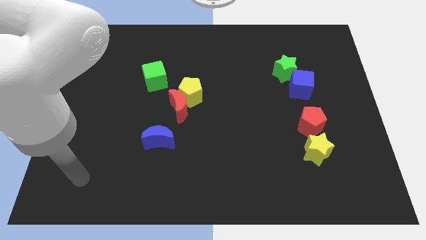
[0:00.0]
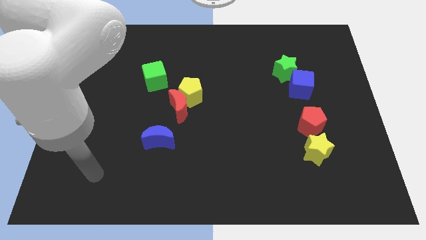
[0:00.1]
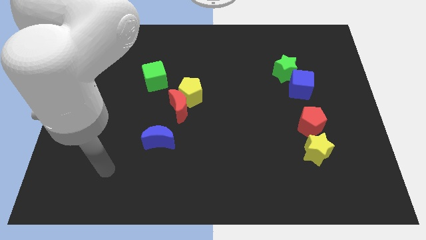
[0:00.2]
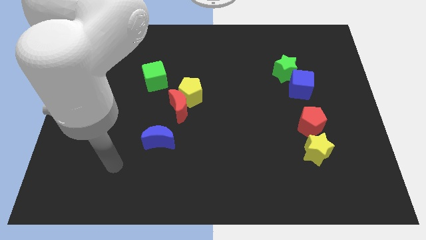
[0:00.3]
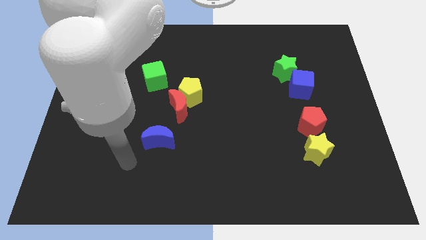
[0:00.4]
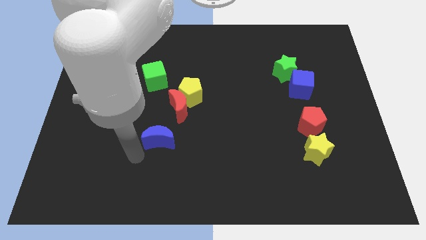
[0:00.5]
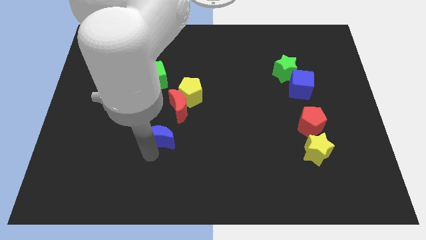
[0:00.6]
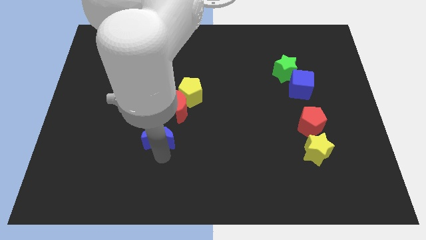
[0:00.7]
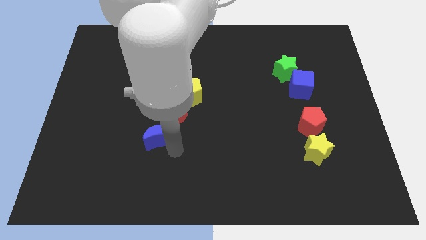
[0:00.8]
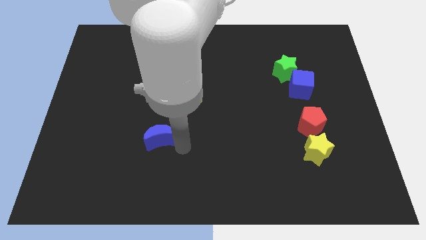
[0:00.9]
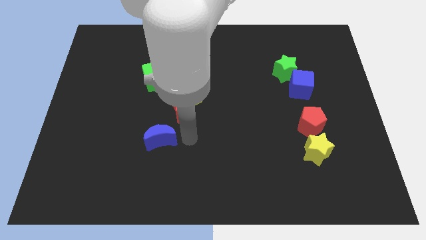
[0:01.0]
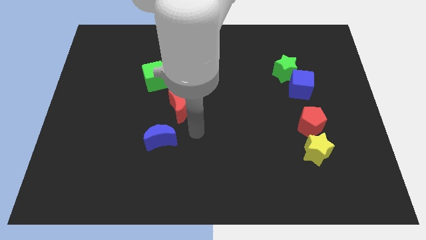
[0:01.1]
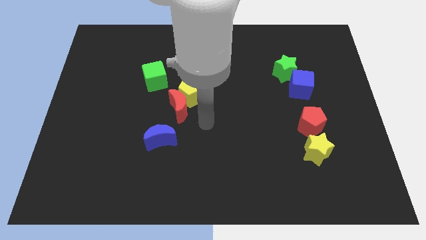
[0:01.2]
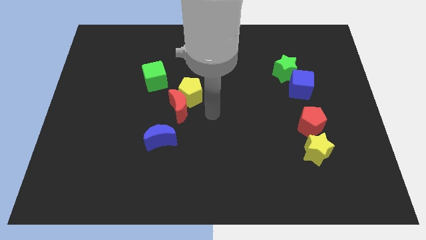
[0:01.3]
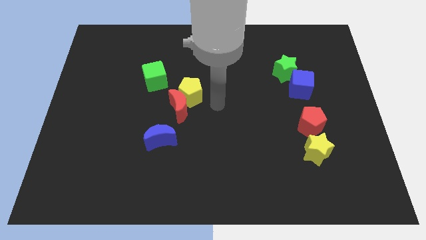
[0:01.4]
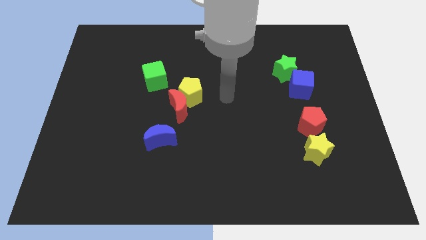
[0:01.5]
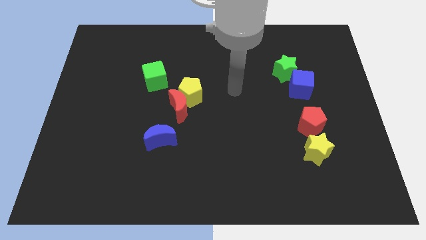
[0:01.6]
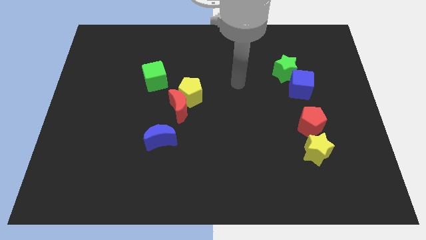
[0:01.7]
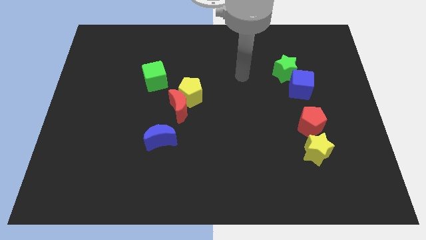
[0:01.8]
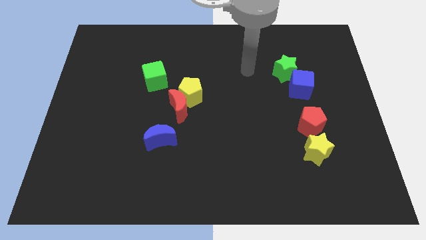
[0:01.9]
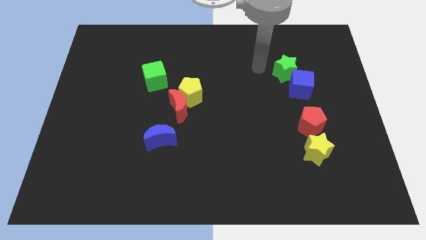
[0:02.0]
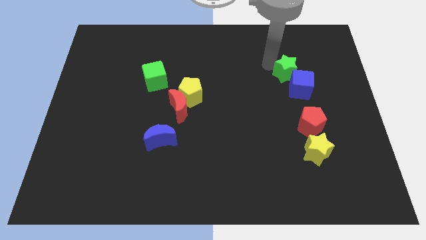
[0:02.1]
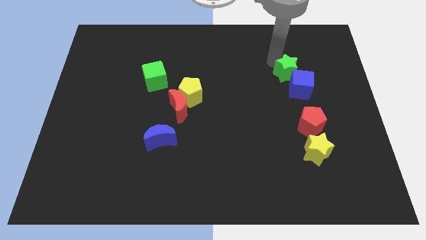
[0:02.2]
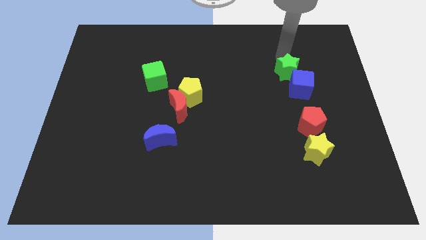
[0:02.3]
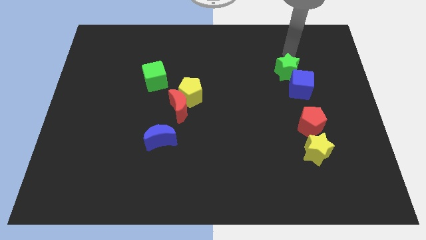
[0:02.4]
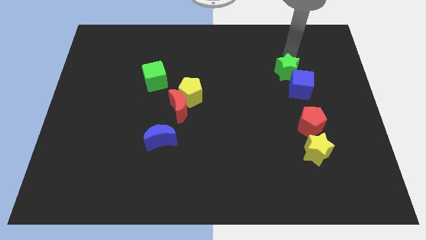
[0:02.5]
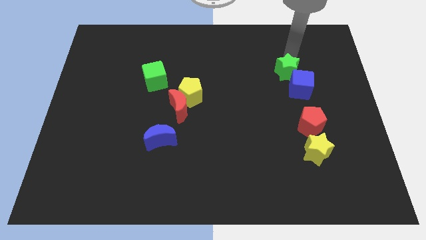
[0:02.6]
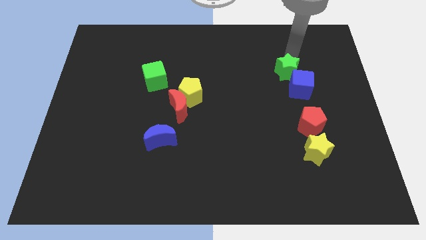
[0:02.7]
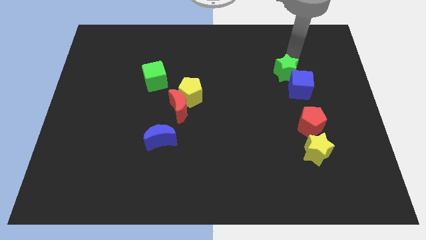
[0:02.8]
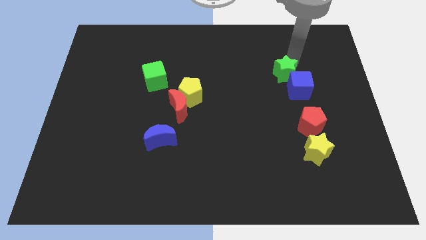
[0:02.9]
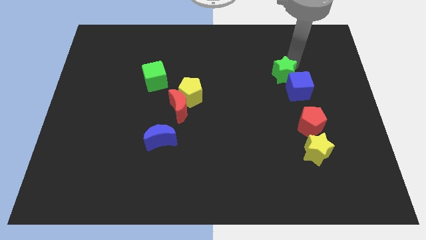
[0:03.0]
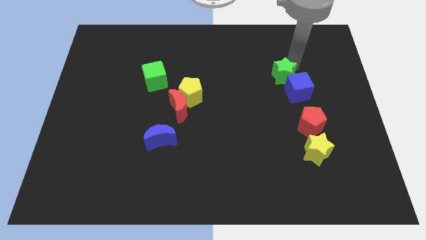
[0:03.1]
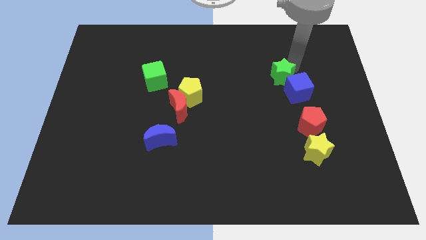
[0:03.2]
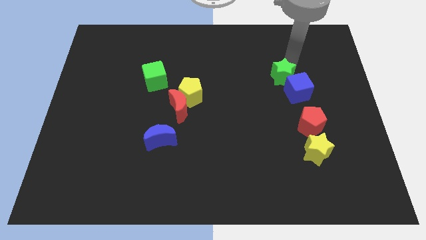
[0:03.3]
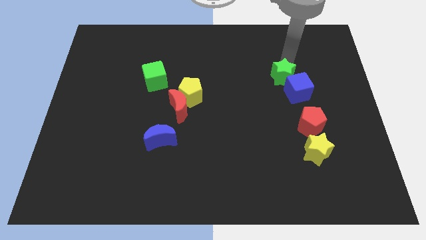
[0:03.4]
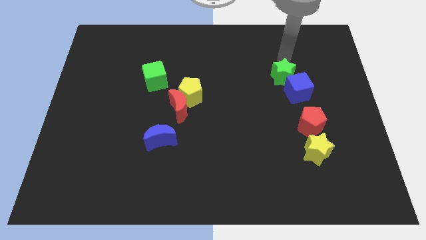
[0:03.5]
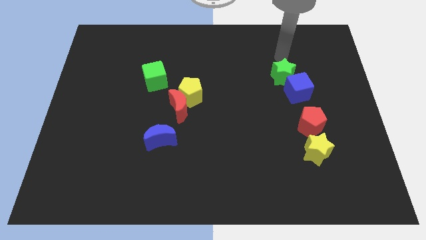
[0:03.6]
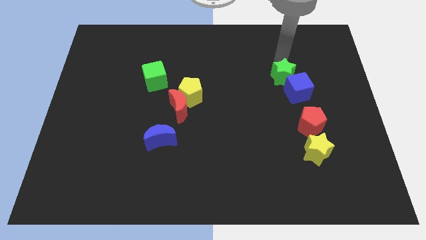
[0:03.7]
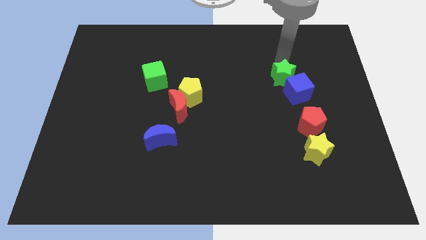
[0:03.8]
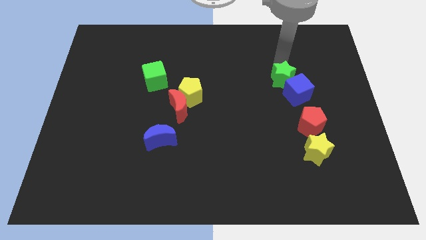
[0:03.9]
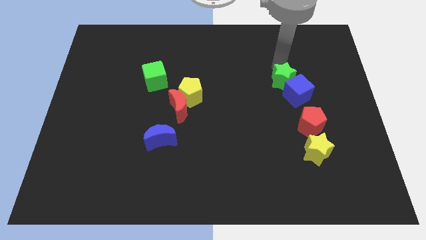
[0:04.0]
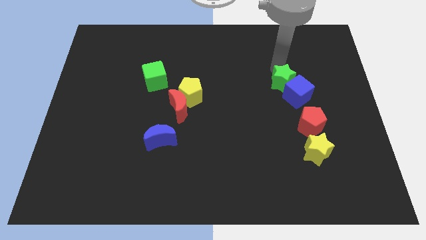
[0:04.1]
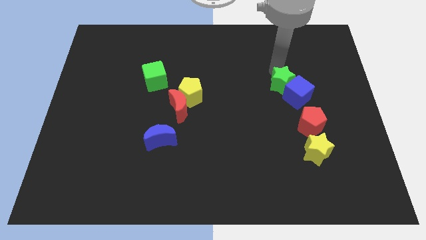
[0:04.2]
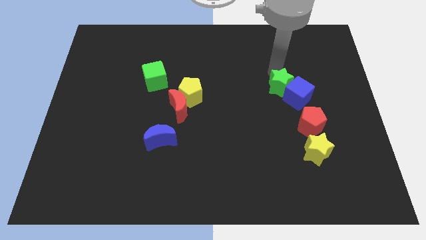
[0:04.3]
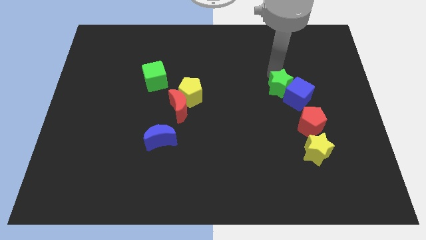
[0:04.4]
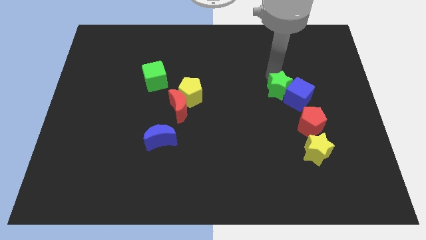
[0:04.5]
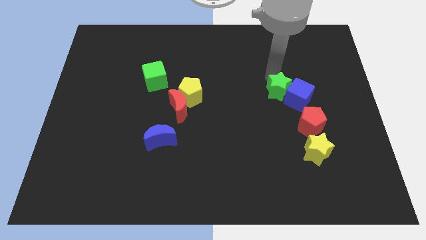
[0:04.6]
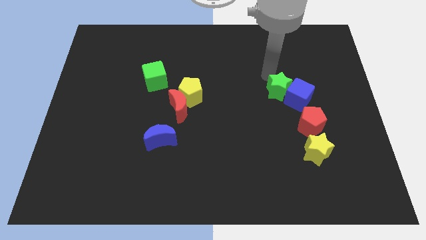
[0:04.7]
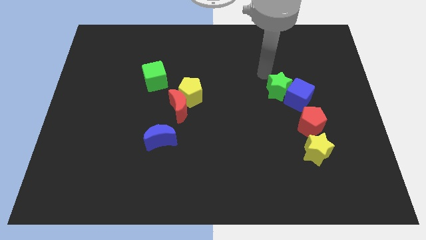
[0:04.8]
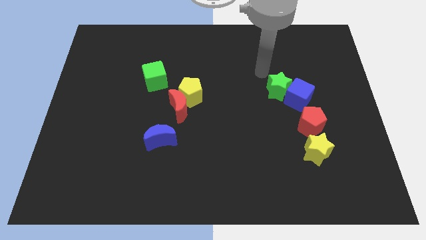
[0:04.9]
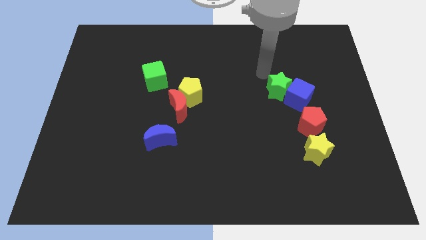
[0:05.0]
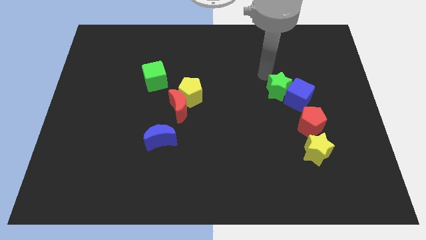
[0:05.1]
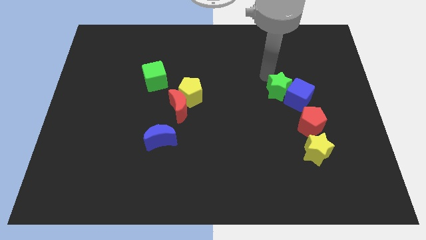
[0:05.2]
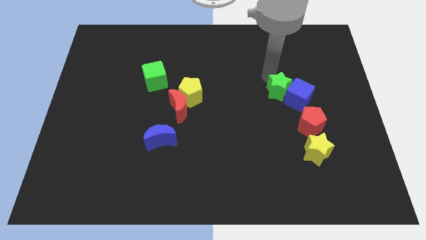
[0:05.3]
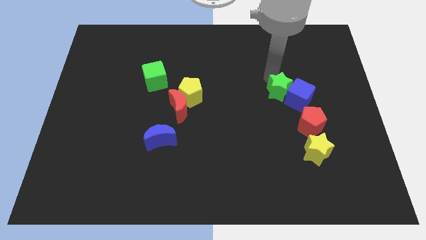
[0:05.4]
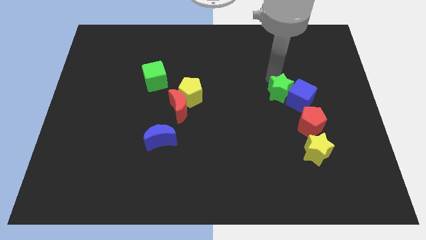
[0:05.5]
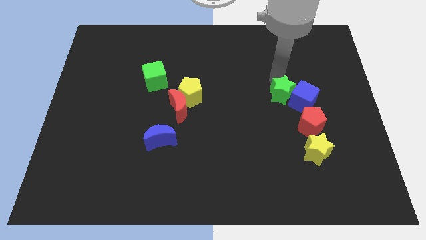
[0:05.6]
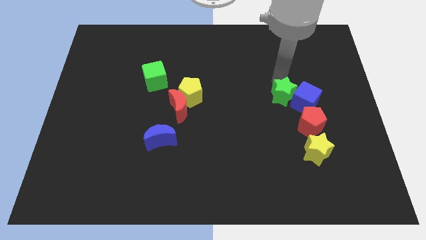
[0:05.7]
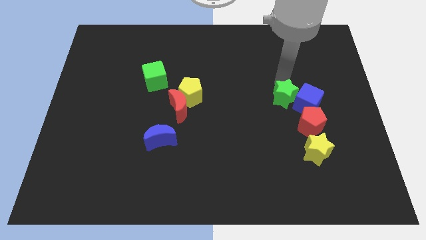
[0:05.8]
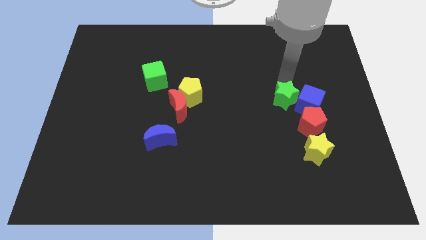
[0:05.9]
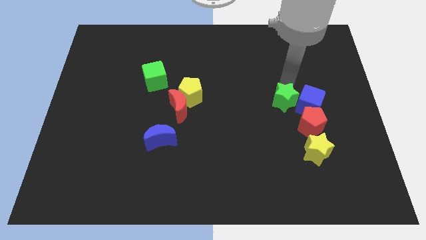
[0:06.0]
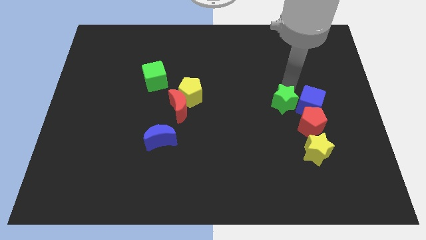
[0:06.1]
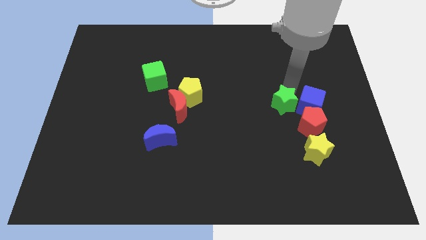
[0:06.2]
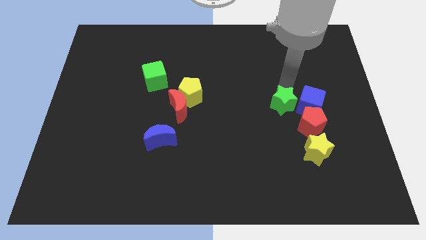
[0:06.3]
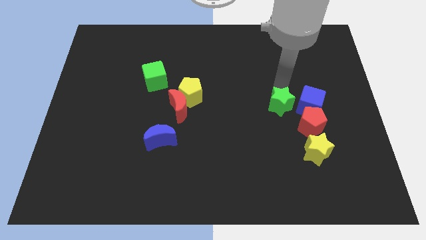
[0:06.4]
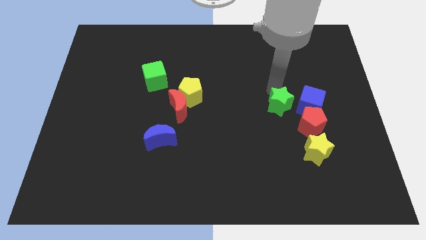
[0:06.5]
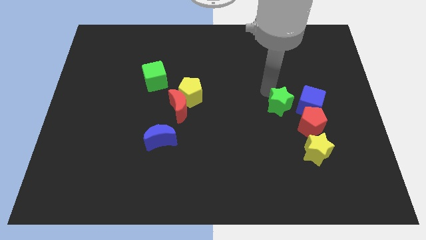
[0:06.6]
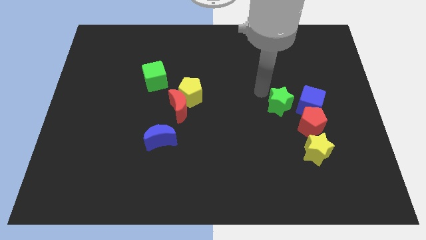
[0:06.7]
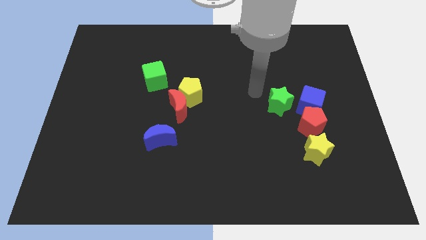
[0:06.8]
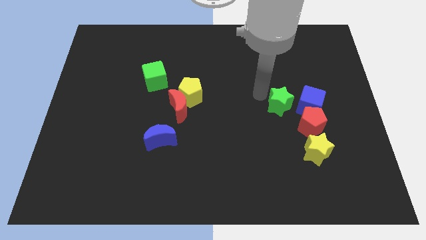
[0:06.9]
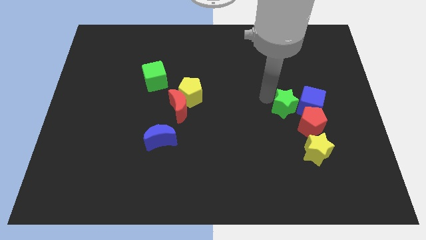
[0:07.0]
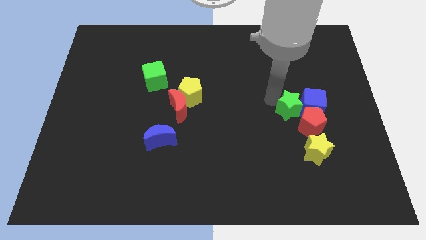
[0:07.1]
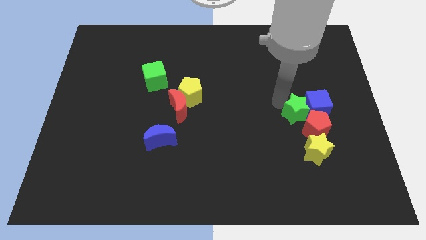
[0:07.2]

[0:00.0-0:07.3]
put the green star next to the red pentagon

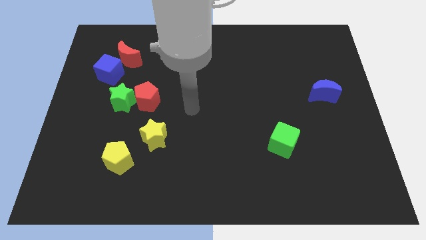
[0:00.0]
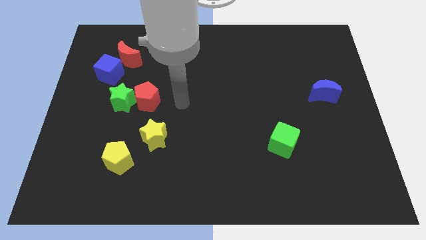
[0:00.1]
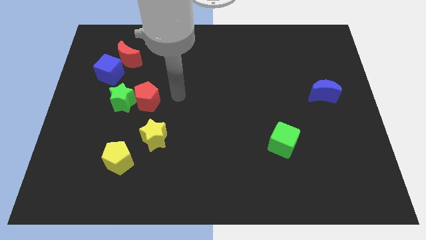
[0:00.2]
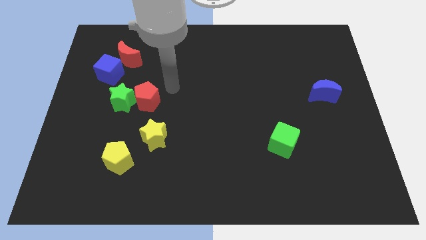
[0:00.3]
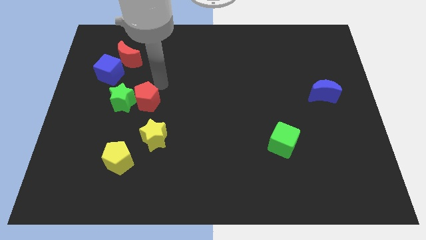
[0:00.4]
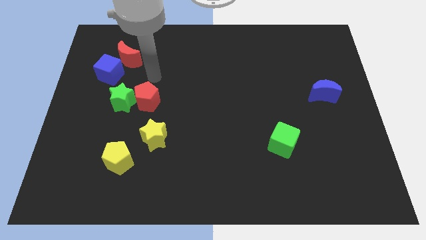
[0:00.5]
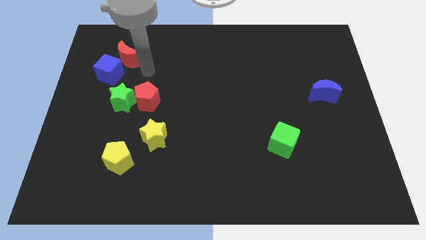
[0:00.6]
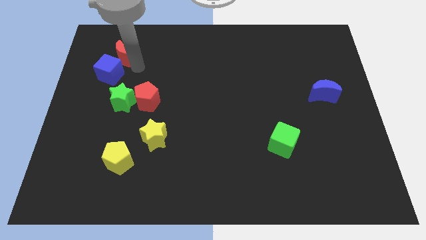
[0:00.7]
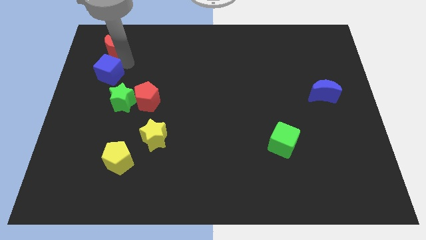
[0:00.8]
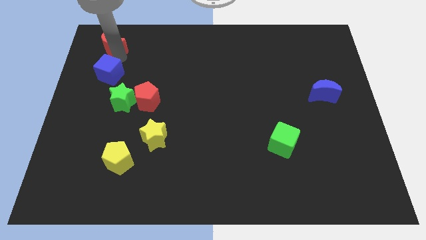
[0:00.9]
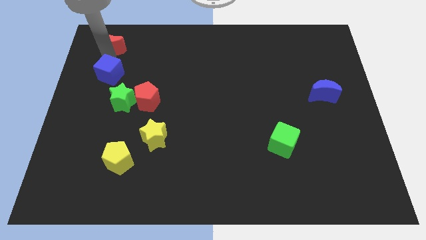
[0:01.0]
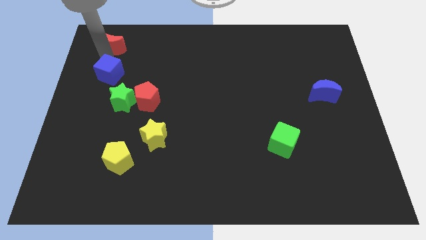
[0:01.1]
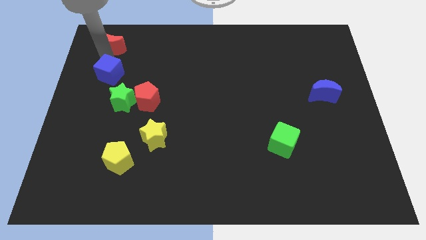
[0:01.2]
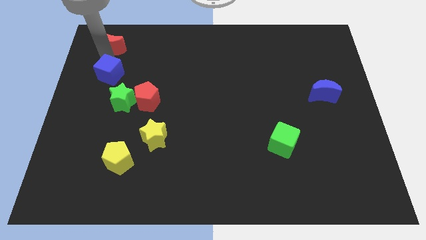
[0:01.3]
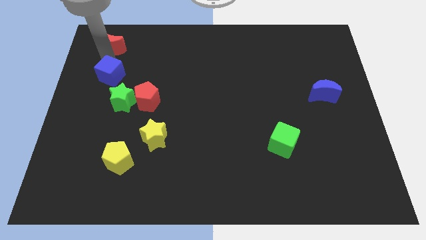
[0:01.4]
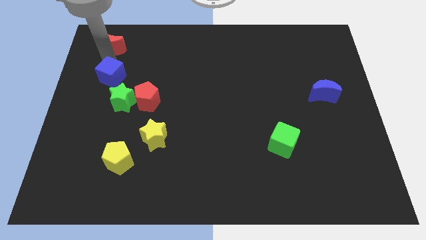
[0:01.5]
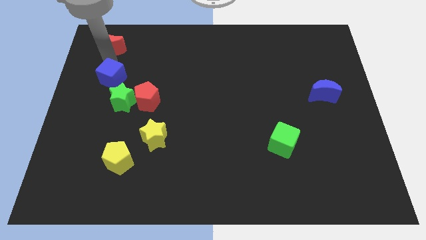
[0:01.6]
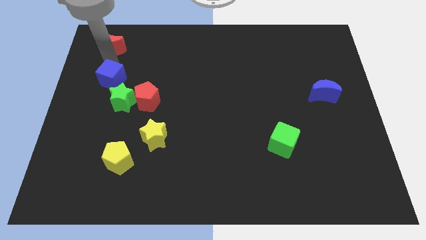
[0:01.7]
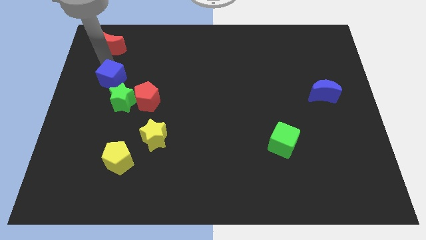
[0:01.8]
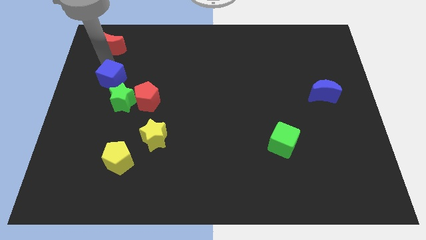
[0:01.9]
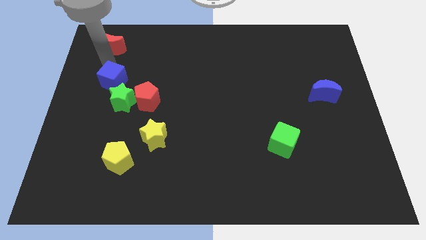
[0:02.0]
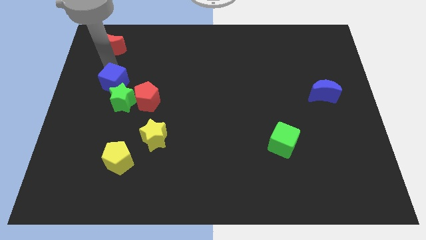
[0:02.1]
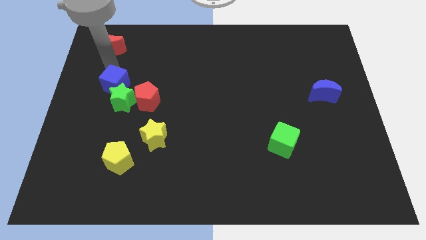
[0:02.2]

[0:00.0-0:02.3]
push the blue cube towards the green star
